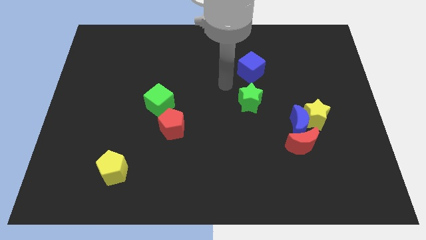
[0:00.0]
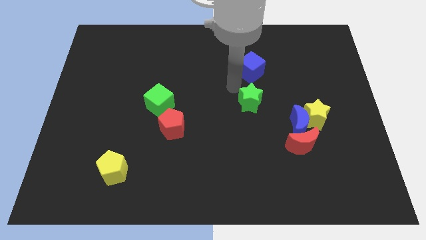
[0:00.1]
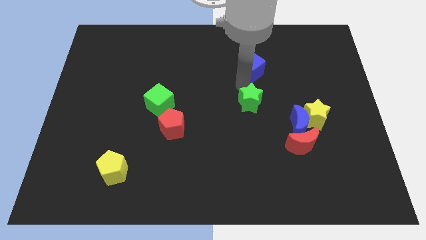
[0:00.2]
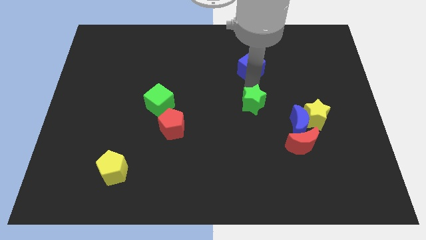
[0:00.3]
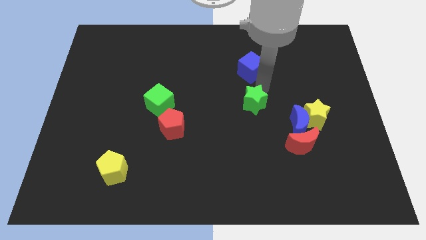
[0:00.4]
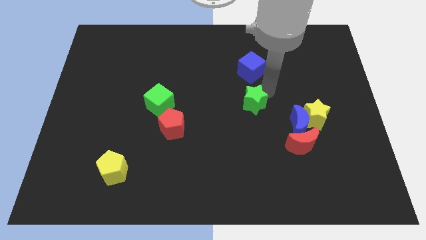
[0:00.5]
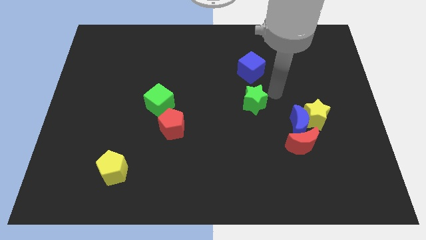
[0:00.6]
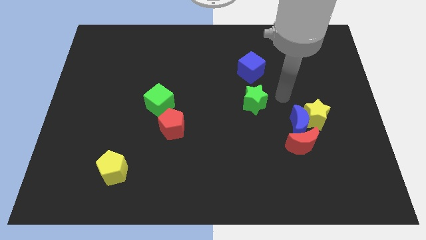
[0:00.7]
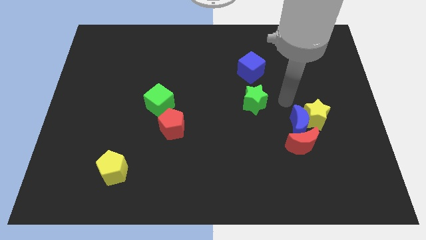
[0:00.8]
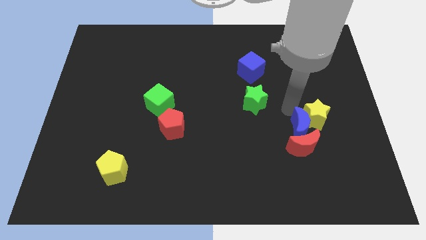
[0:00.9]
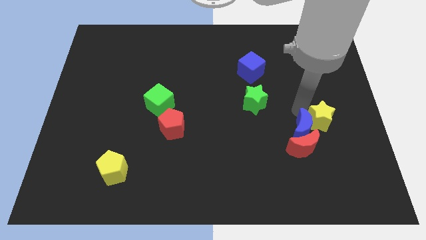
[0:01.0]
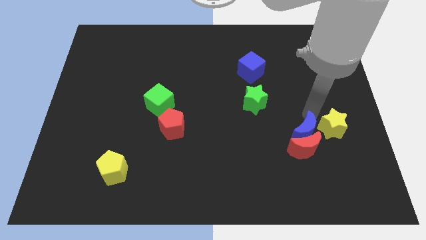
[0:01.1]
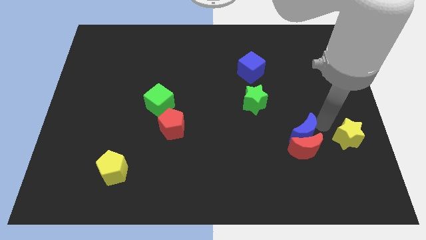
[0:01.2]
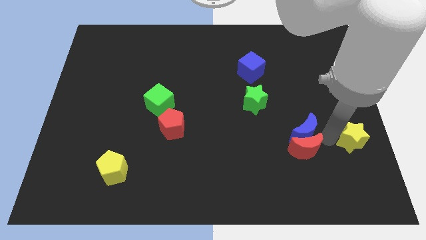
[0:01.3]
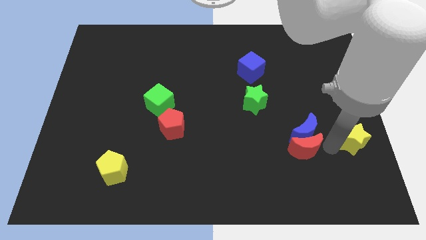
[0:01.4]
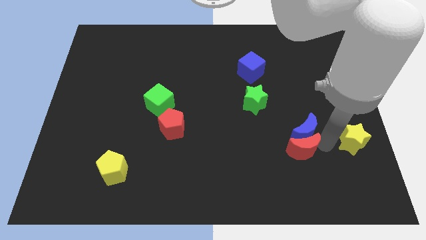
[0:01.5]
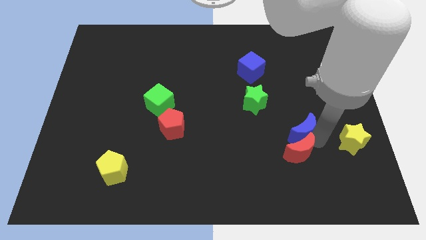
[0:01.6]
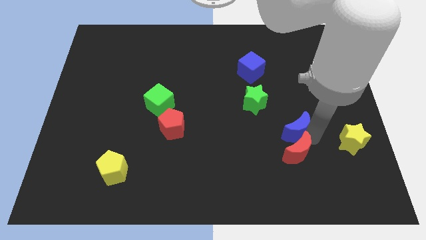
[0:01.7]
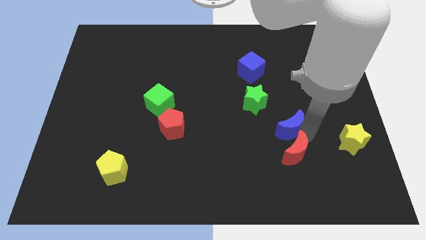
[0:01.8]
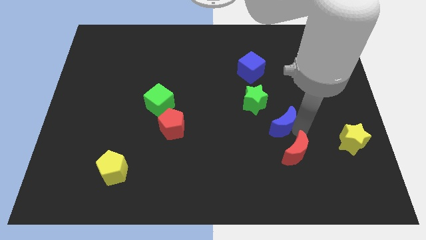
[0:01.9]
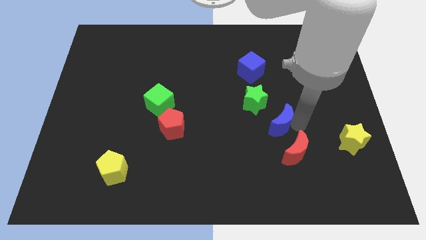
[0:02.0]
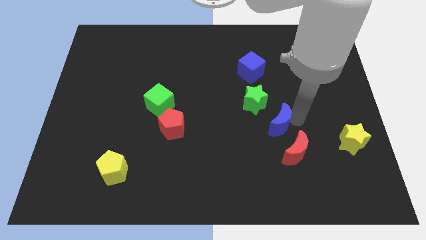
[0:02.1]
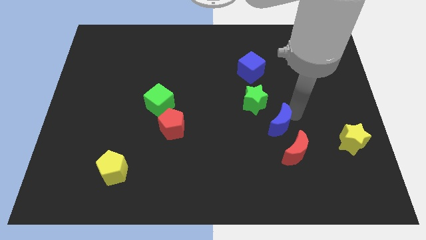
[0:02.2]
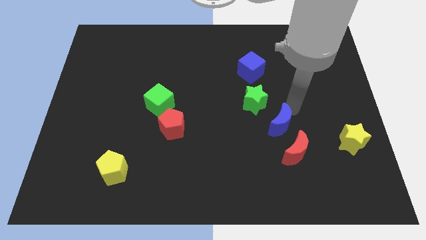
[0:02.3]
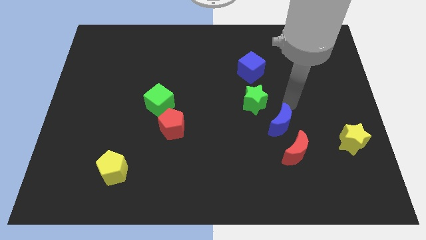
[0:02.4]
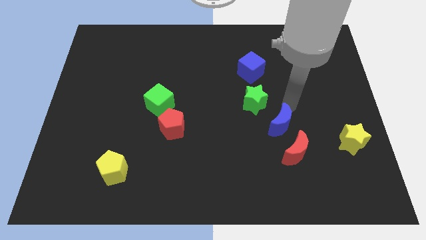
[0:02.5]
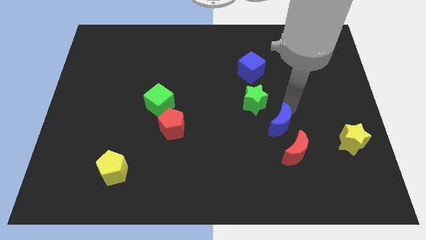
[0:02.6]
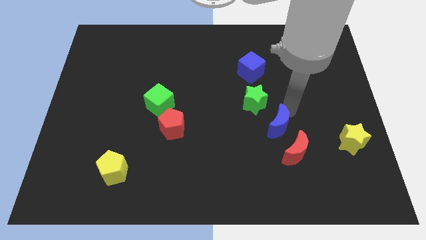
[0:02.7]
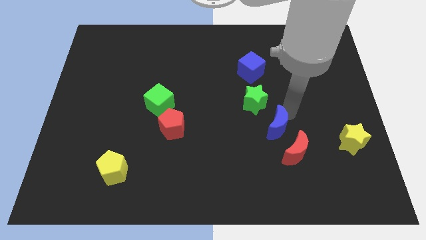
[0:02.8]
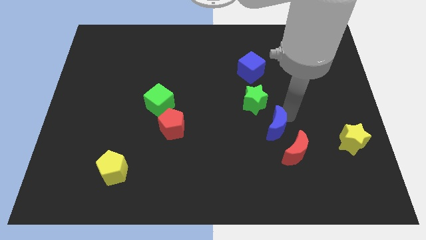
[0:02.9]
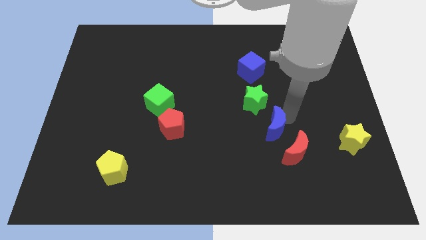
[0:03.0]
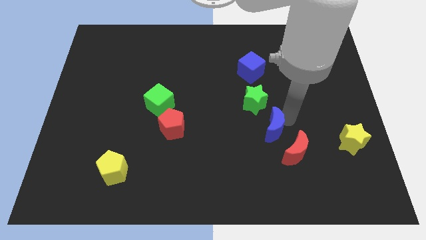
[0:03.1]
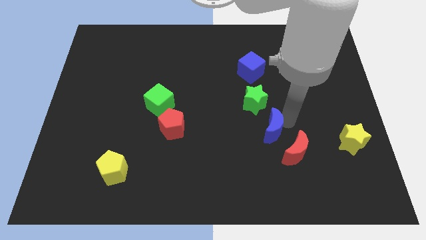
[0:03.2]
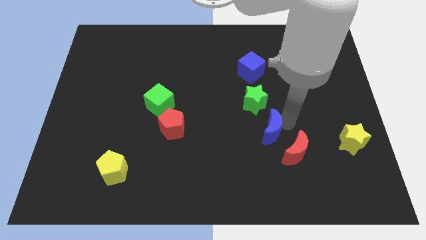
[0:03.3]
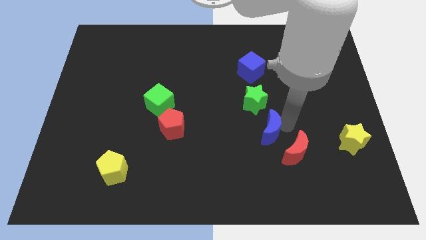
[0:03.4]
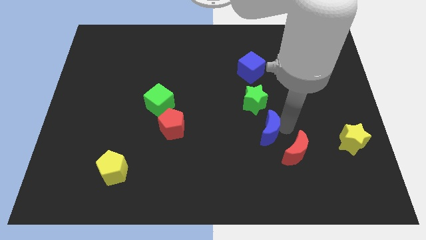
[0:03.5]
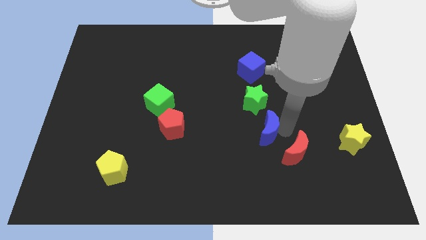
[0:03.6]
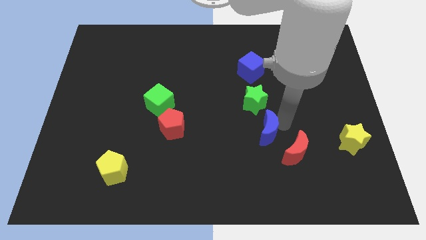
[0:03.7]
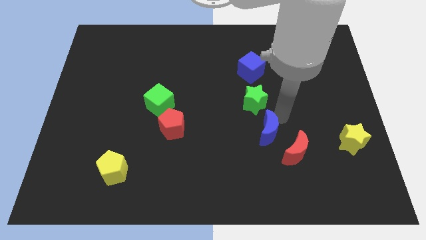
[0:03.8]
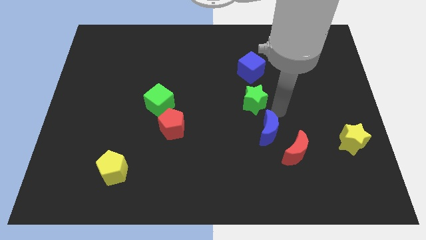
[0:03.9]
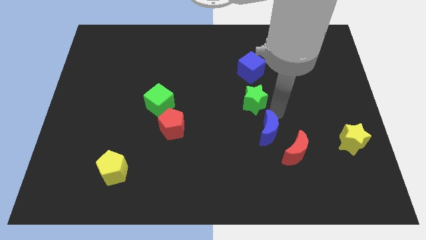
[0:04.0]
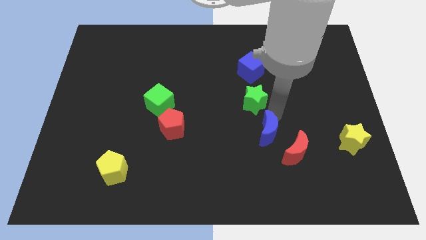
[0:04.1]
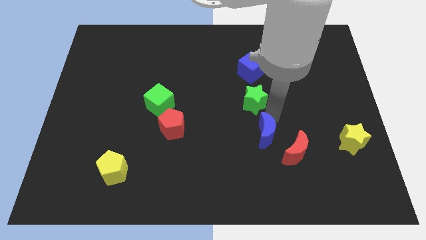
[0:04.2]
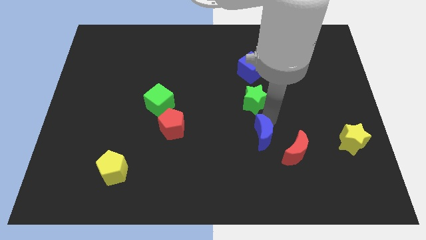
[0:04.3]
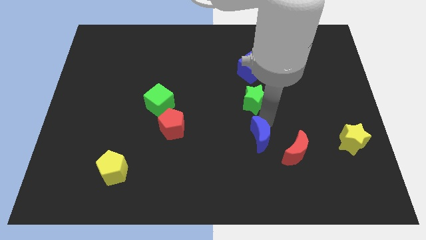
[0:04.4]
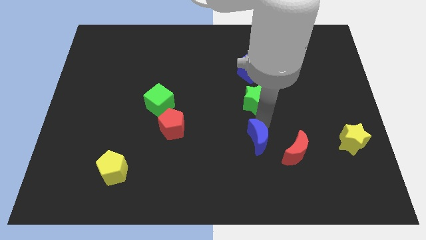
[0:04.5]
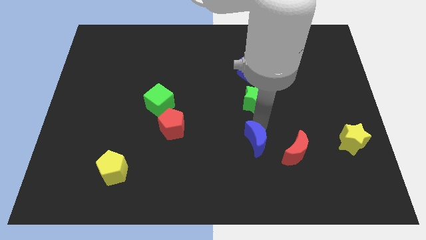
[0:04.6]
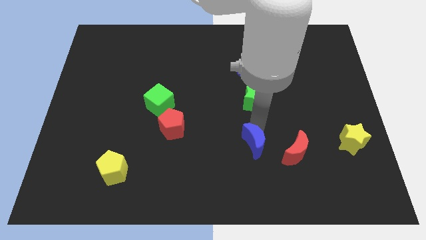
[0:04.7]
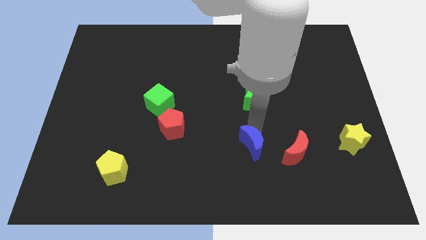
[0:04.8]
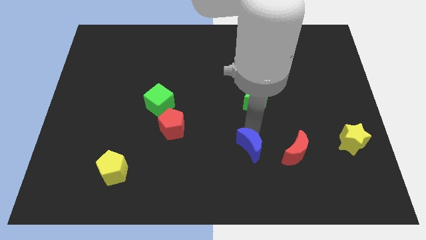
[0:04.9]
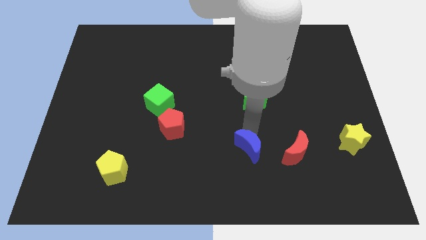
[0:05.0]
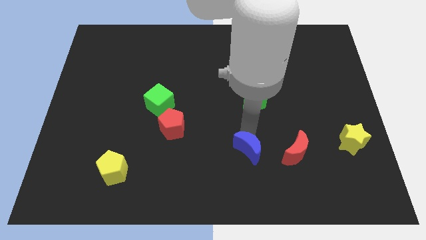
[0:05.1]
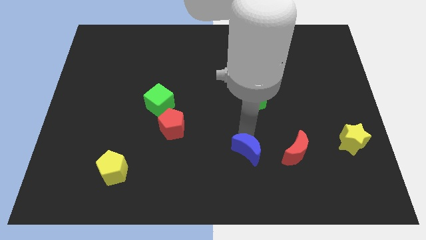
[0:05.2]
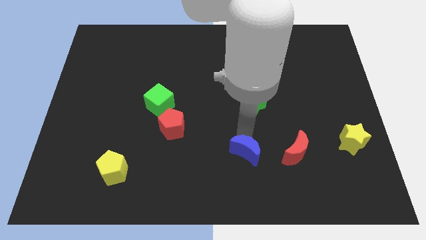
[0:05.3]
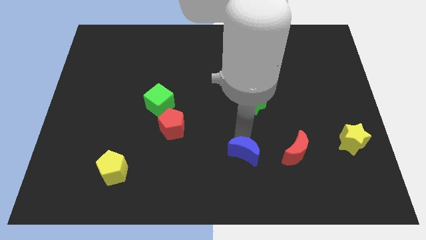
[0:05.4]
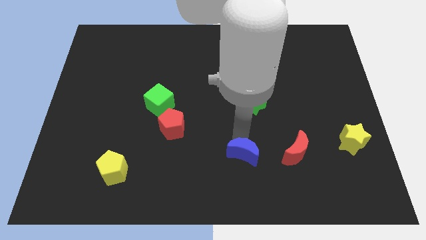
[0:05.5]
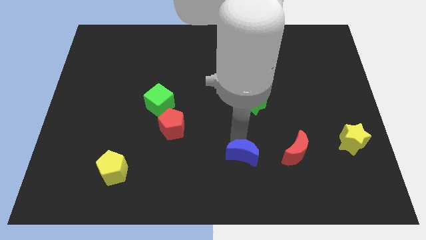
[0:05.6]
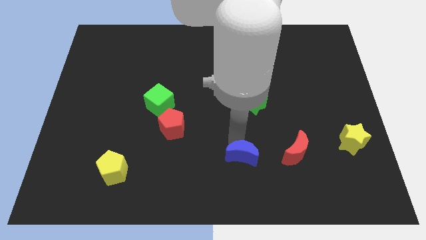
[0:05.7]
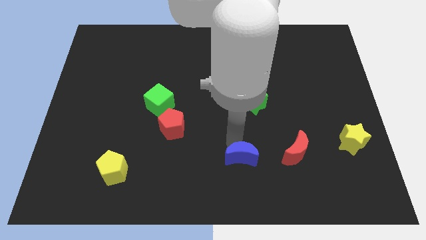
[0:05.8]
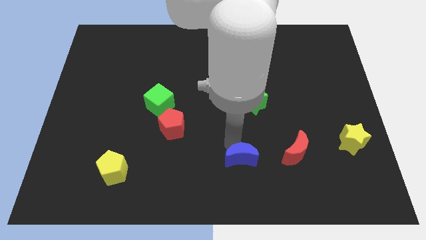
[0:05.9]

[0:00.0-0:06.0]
put the blue moon to the bottom
